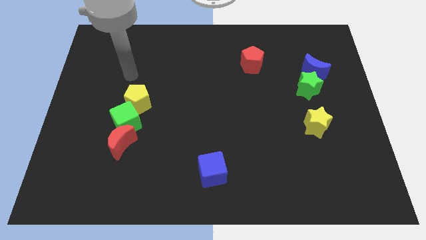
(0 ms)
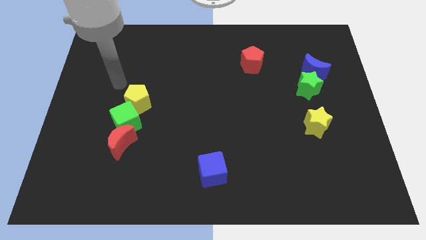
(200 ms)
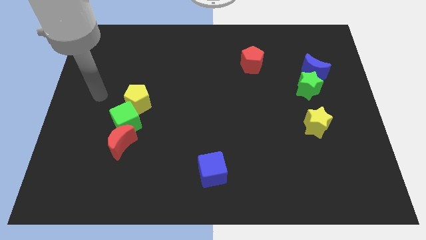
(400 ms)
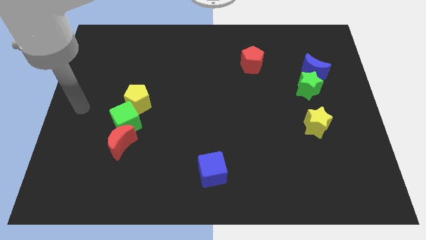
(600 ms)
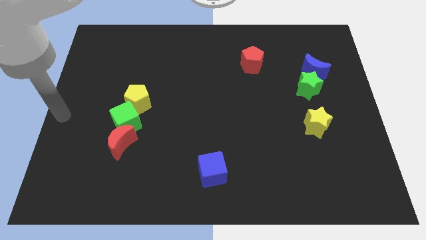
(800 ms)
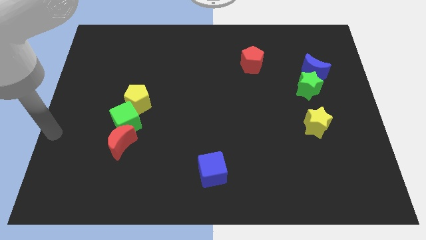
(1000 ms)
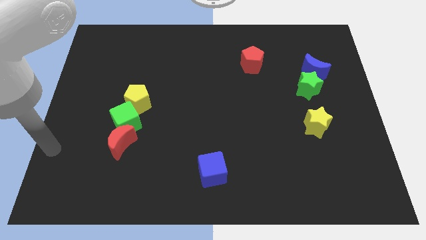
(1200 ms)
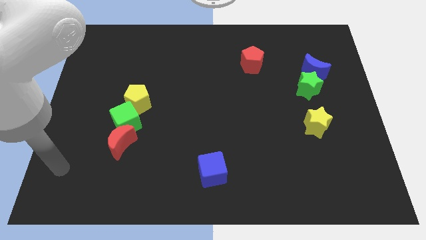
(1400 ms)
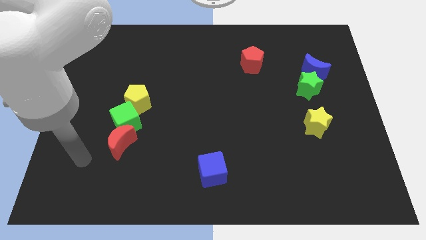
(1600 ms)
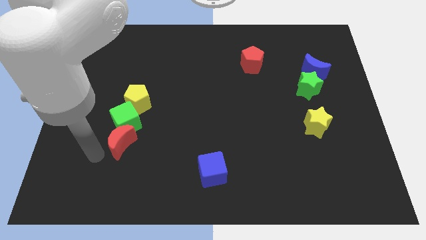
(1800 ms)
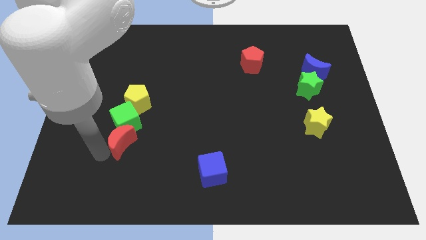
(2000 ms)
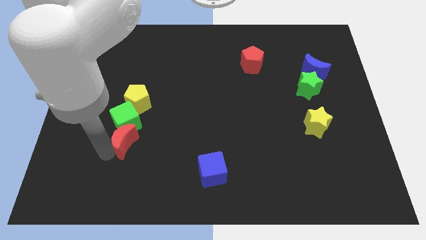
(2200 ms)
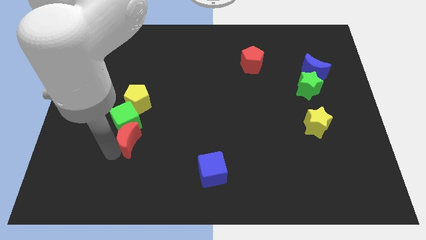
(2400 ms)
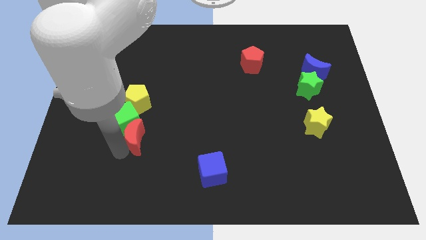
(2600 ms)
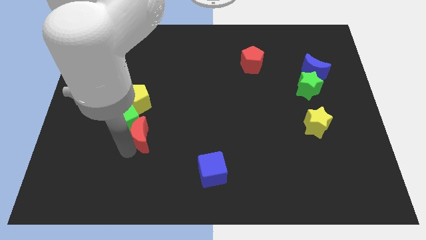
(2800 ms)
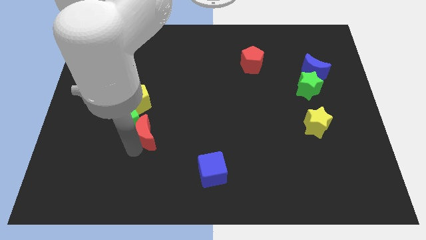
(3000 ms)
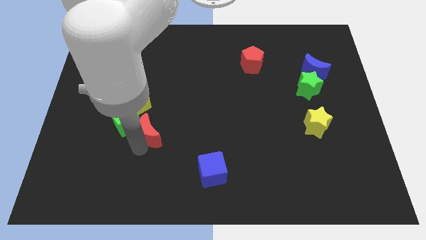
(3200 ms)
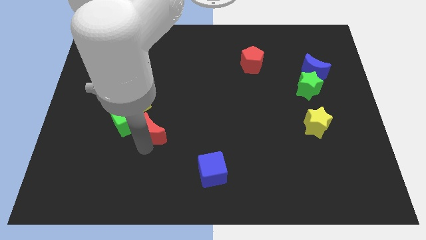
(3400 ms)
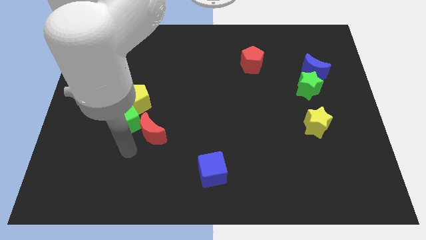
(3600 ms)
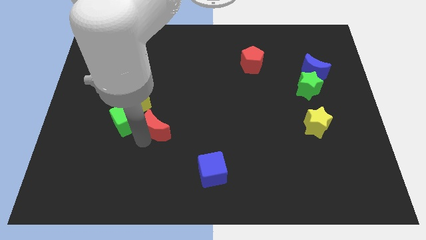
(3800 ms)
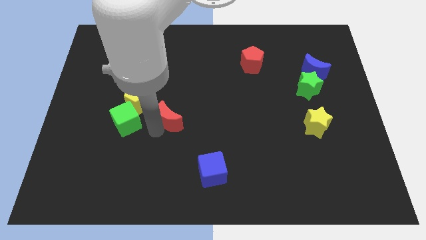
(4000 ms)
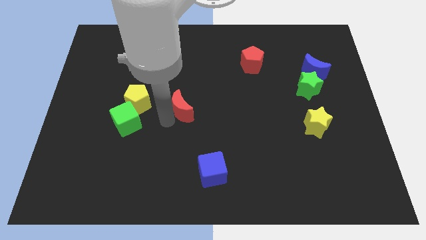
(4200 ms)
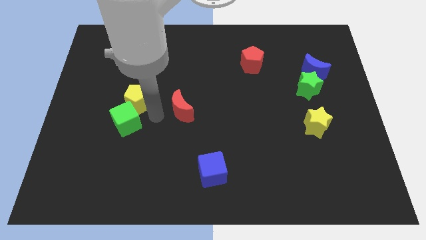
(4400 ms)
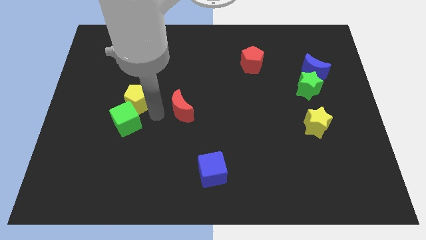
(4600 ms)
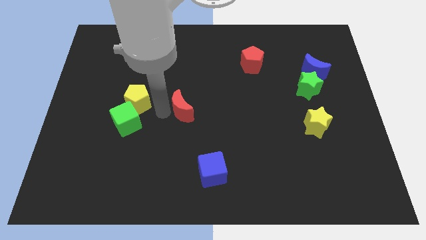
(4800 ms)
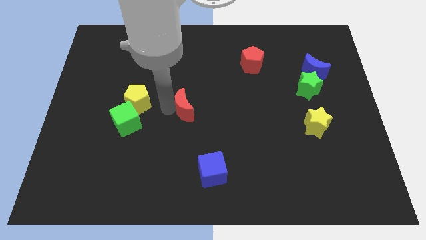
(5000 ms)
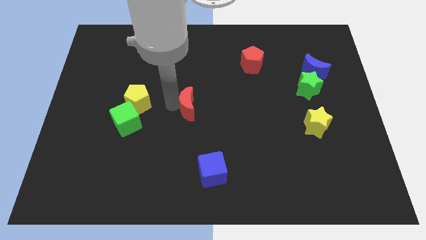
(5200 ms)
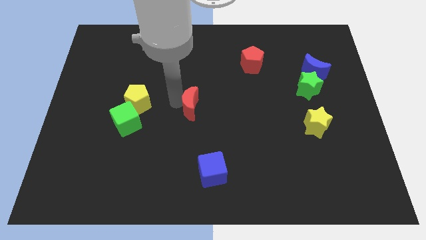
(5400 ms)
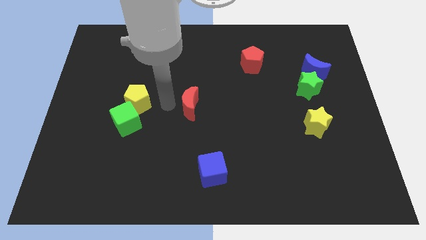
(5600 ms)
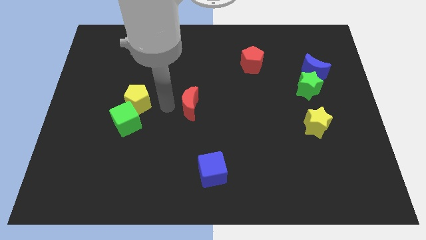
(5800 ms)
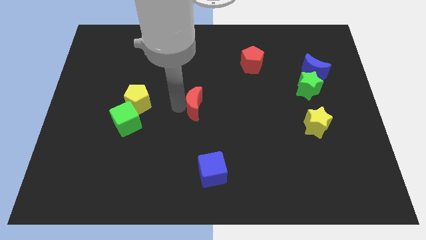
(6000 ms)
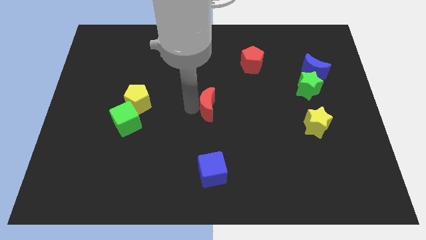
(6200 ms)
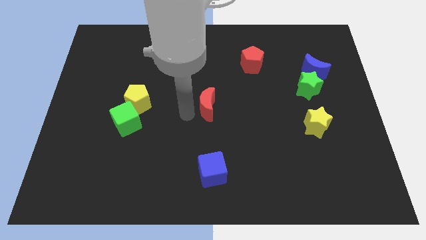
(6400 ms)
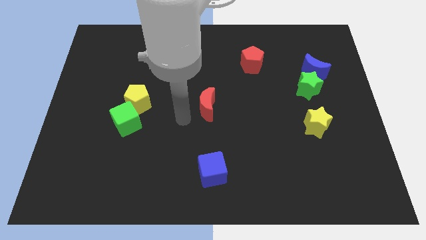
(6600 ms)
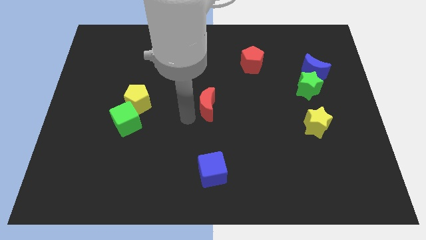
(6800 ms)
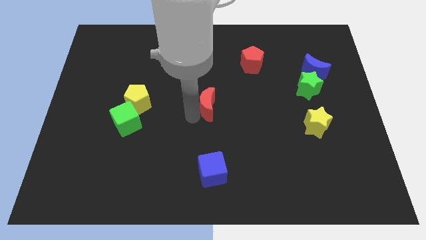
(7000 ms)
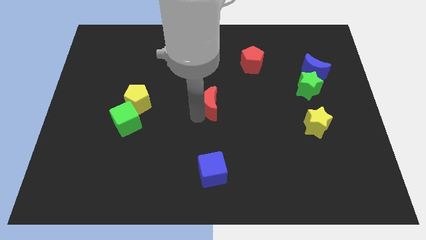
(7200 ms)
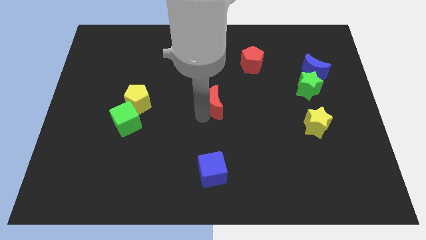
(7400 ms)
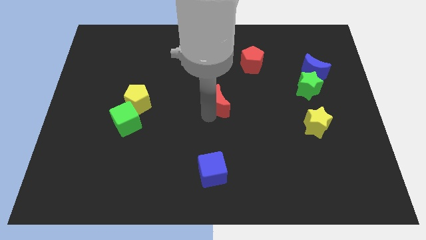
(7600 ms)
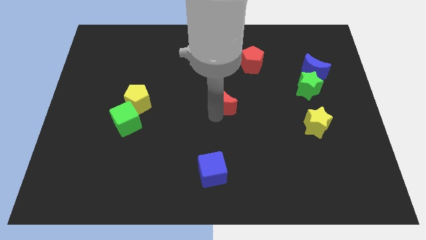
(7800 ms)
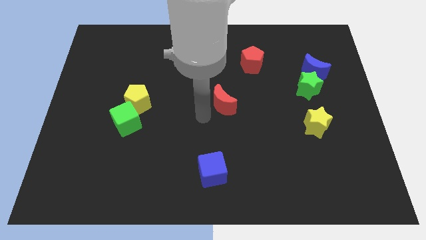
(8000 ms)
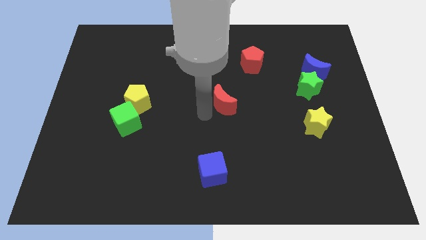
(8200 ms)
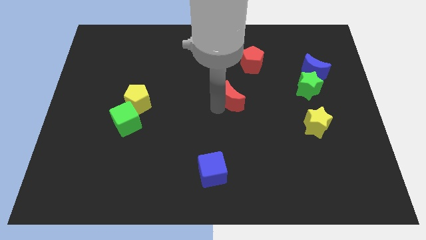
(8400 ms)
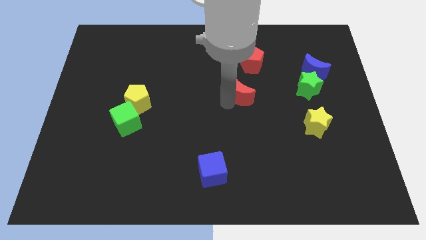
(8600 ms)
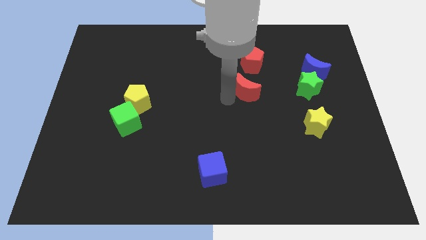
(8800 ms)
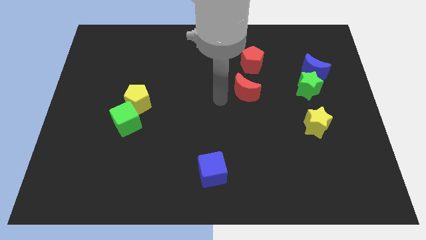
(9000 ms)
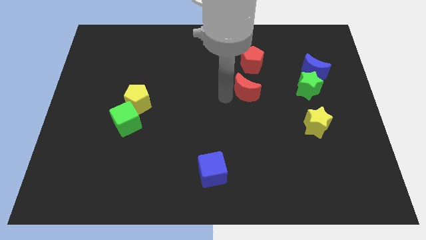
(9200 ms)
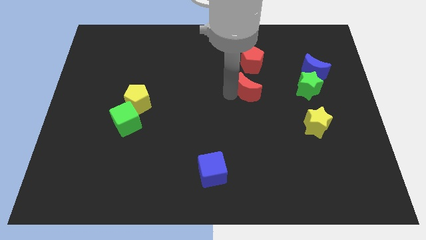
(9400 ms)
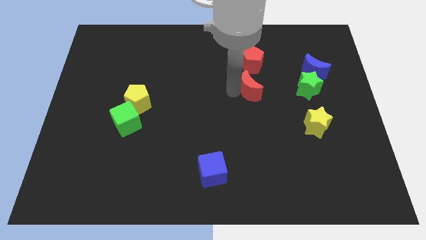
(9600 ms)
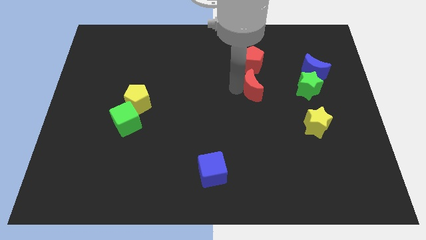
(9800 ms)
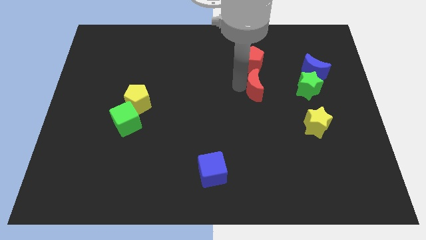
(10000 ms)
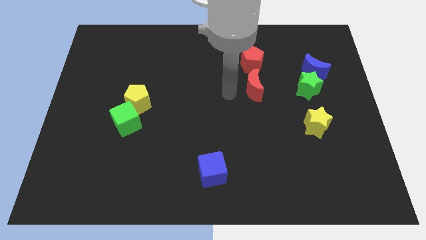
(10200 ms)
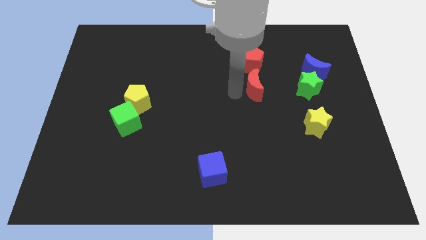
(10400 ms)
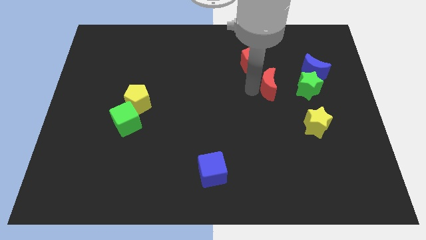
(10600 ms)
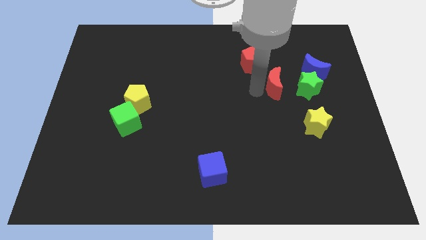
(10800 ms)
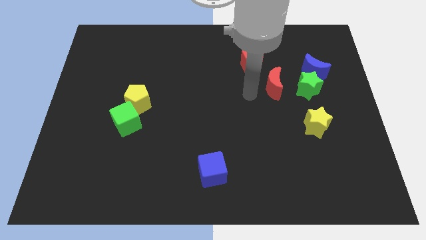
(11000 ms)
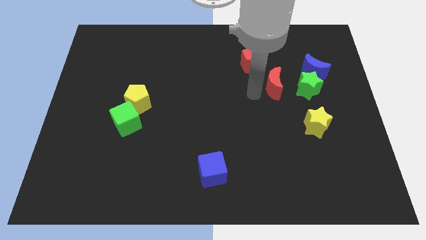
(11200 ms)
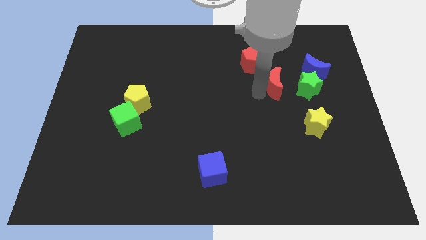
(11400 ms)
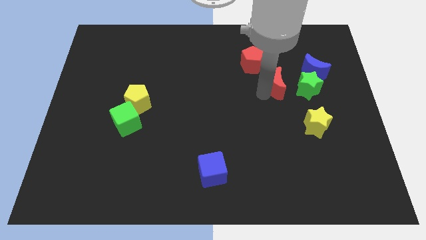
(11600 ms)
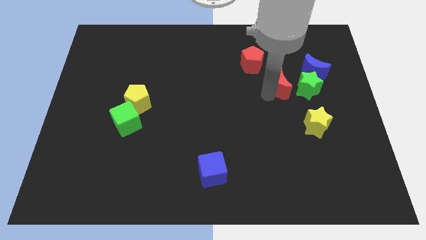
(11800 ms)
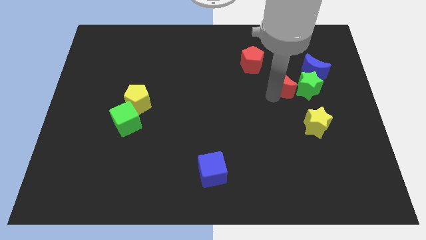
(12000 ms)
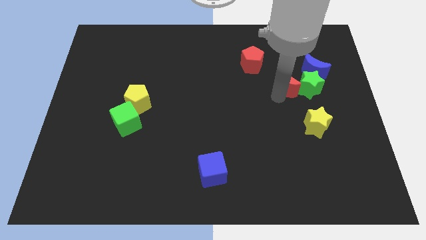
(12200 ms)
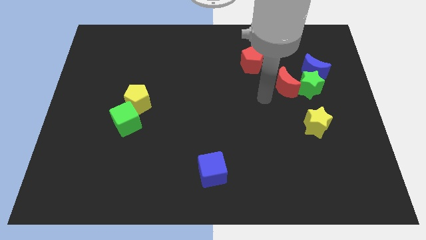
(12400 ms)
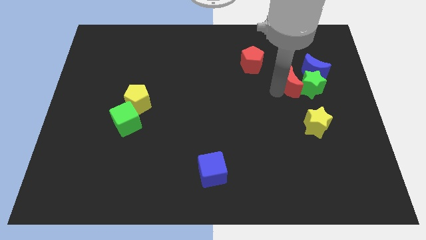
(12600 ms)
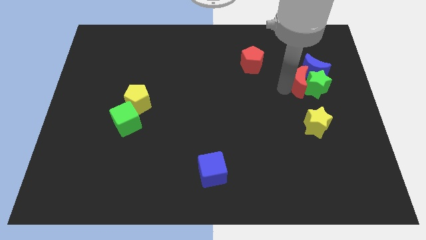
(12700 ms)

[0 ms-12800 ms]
move the red moon towards the blue moon

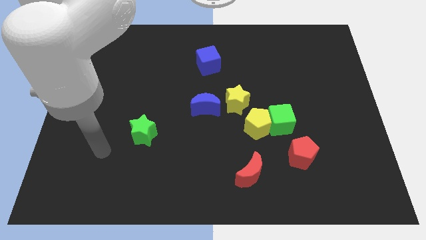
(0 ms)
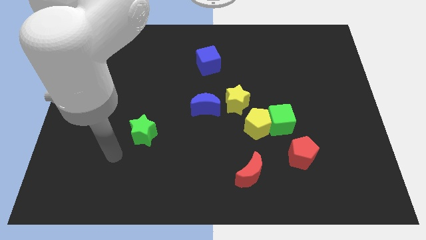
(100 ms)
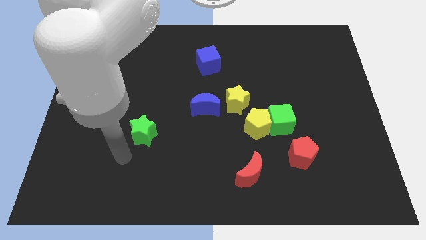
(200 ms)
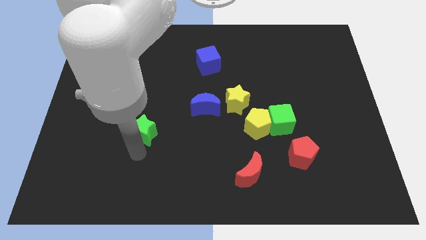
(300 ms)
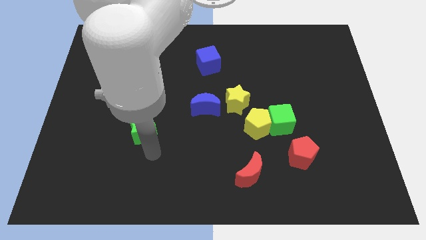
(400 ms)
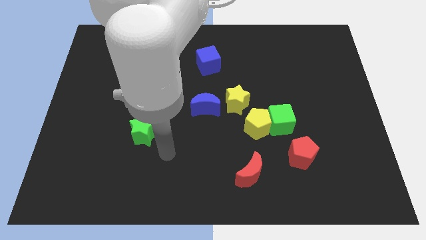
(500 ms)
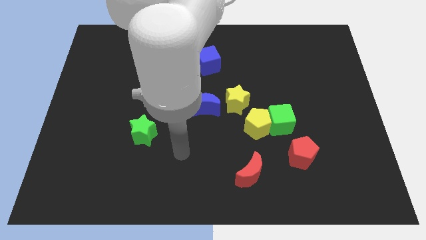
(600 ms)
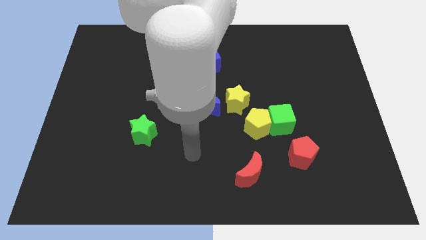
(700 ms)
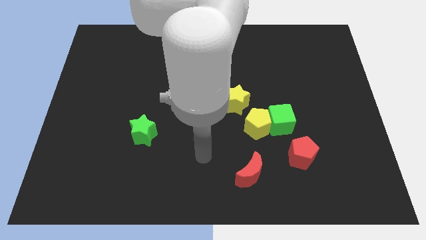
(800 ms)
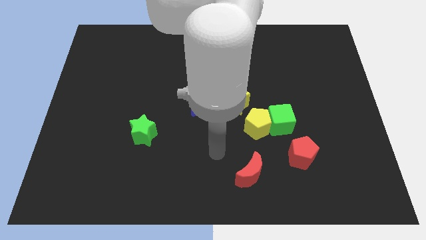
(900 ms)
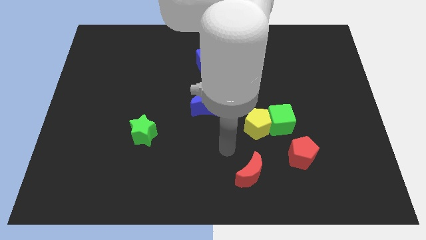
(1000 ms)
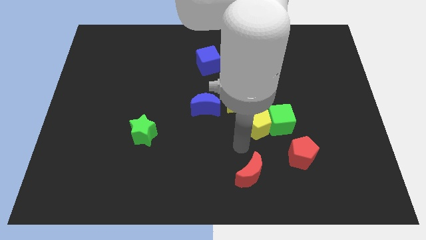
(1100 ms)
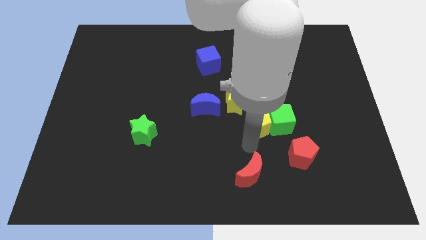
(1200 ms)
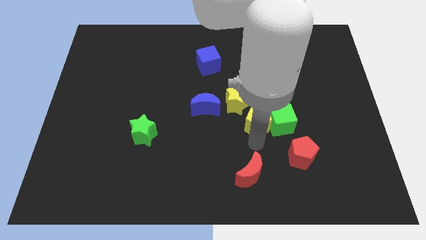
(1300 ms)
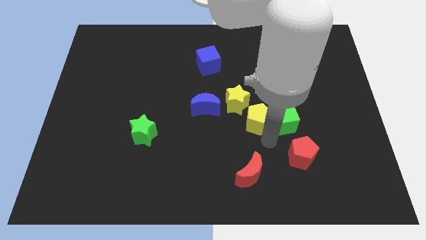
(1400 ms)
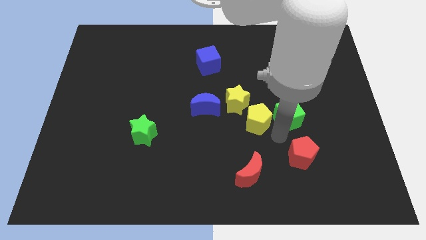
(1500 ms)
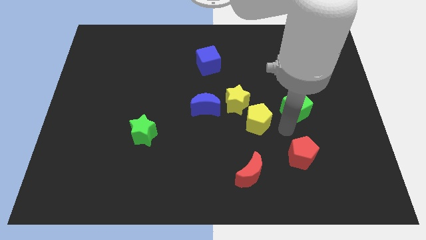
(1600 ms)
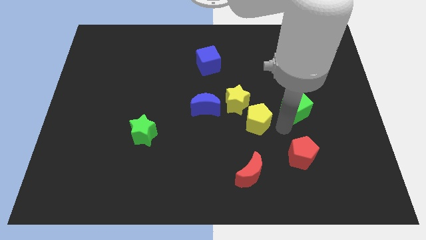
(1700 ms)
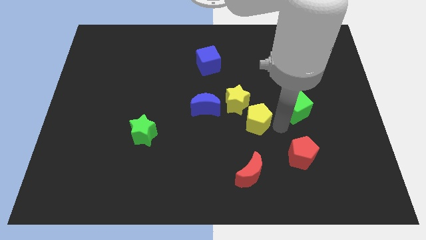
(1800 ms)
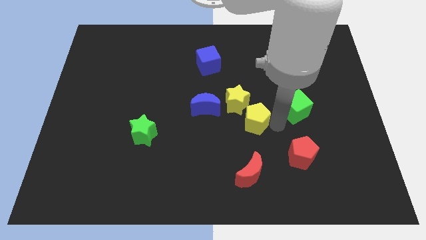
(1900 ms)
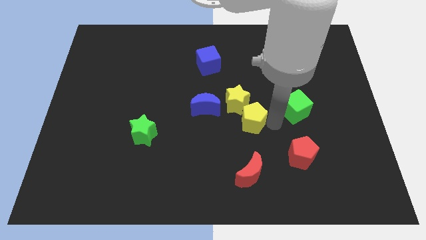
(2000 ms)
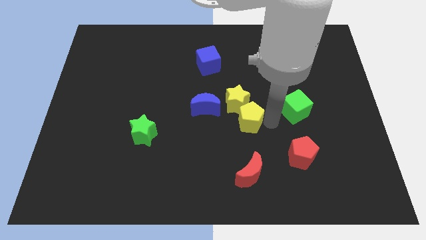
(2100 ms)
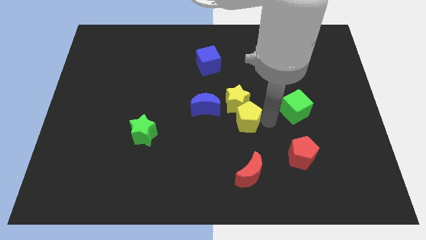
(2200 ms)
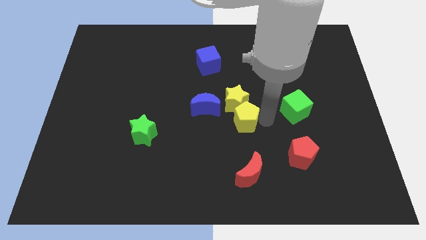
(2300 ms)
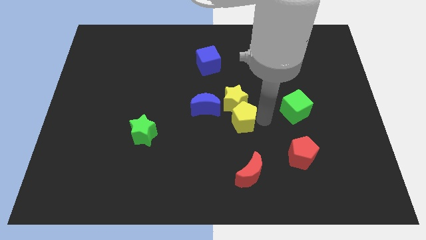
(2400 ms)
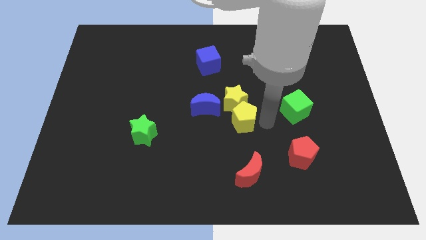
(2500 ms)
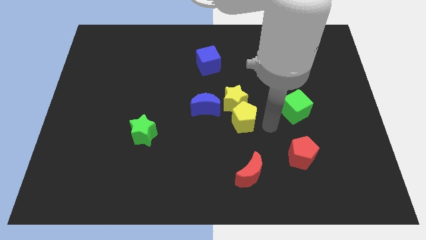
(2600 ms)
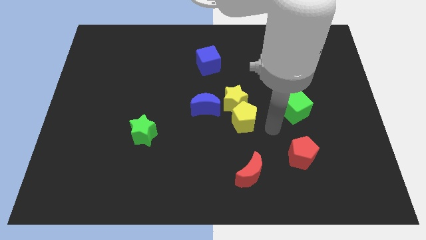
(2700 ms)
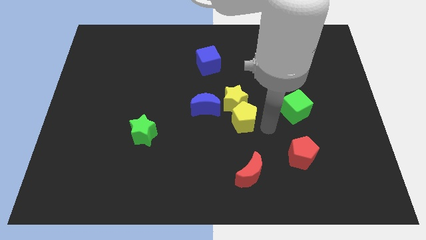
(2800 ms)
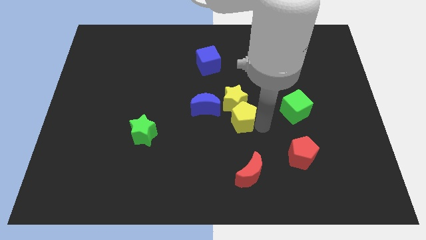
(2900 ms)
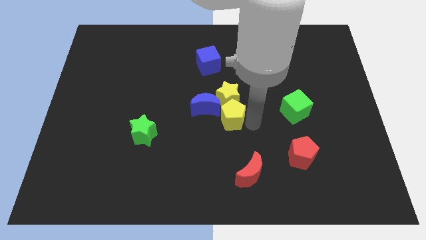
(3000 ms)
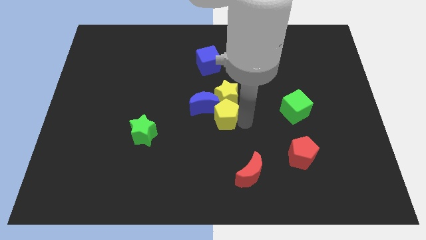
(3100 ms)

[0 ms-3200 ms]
slide the yellow pentagon next to the blue moon
